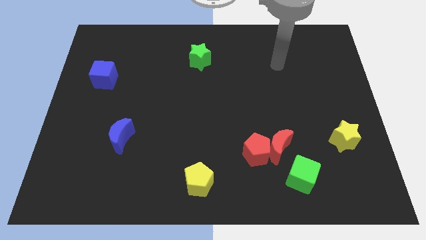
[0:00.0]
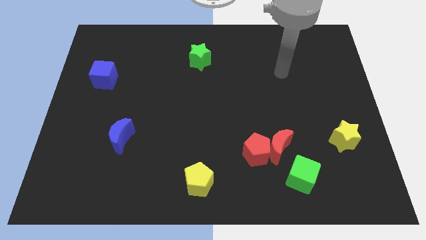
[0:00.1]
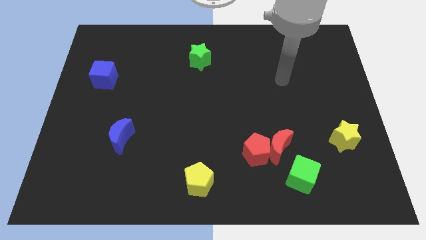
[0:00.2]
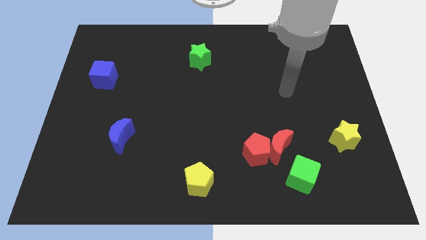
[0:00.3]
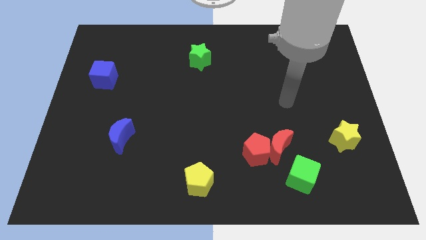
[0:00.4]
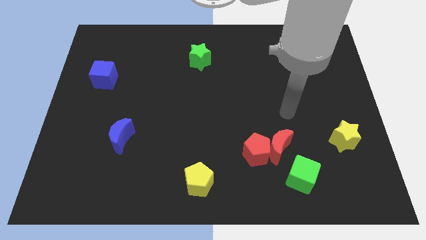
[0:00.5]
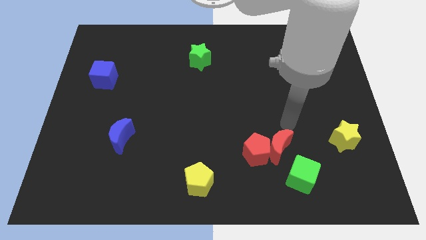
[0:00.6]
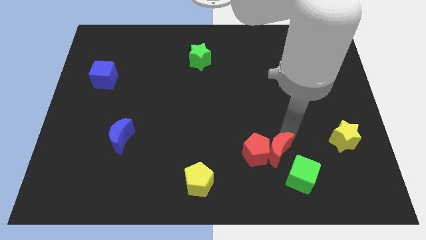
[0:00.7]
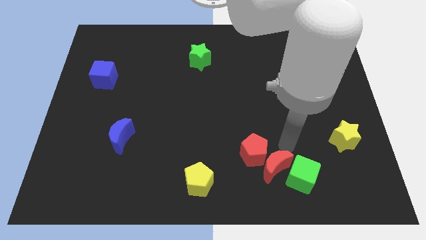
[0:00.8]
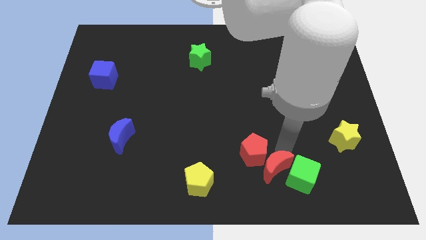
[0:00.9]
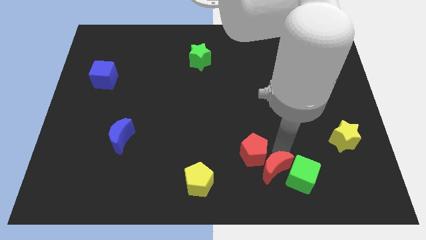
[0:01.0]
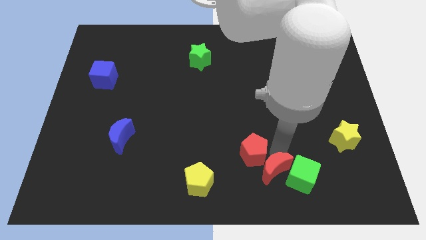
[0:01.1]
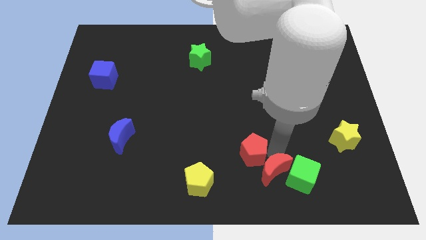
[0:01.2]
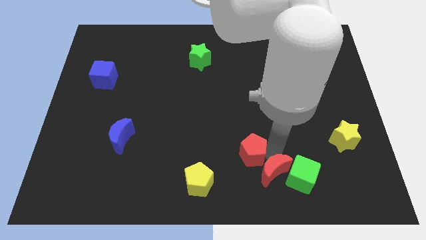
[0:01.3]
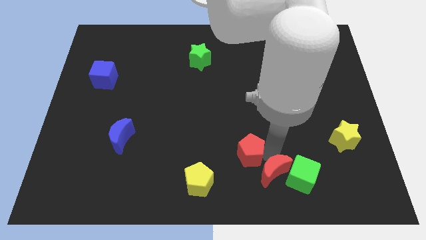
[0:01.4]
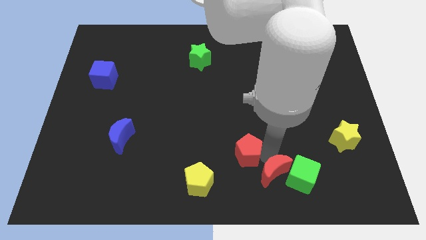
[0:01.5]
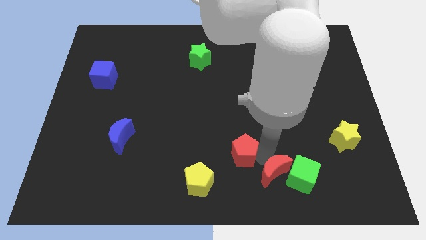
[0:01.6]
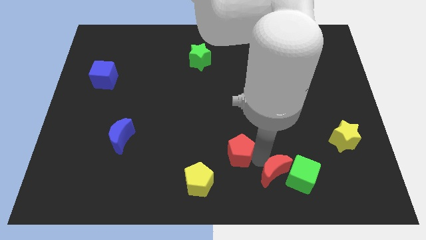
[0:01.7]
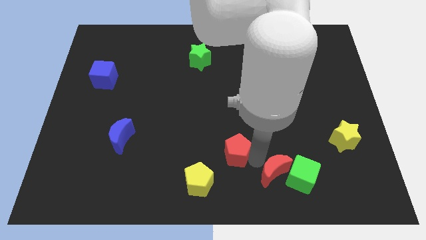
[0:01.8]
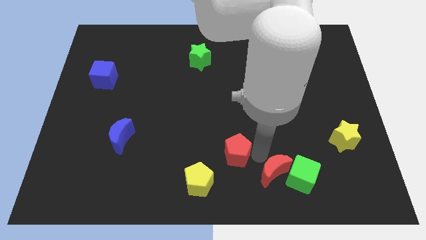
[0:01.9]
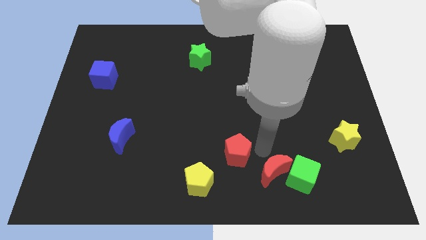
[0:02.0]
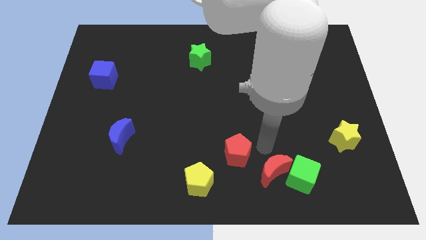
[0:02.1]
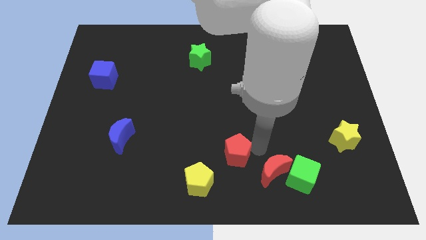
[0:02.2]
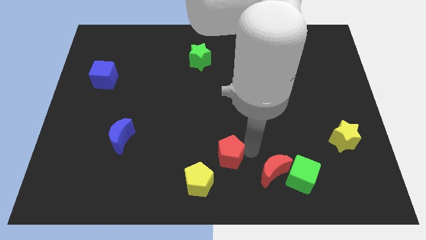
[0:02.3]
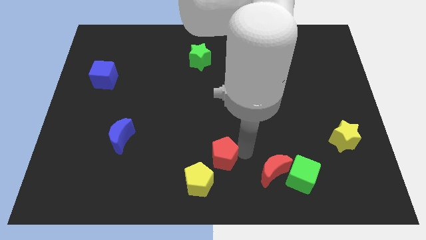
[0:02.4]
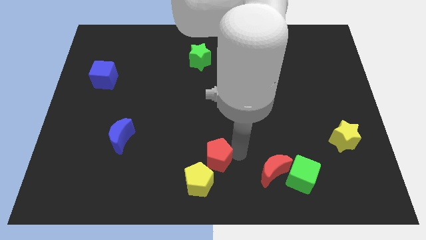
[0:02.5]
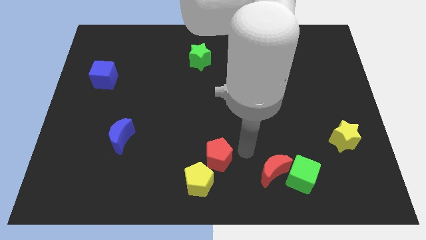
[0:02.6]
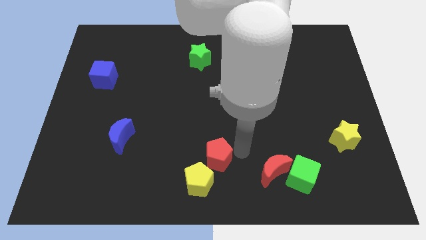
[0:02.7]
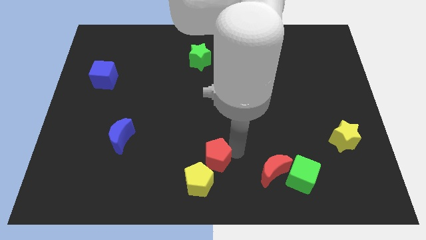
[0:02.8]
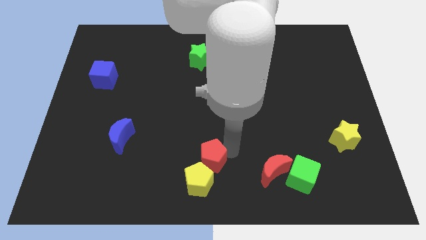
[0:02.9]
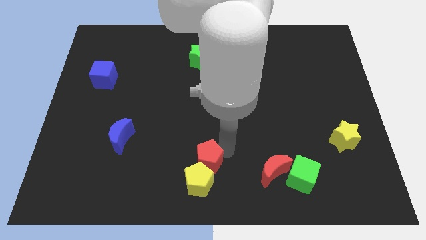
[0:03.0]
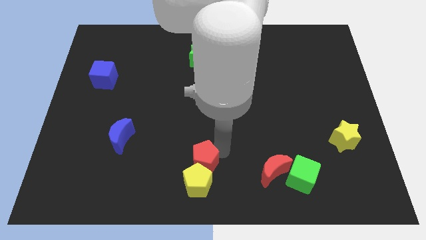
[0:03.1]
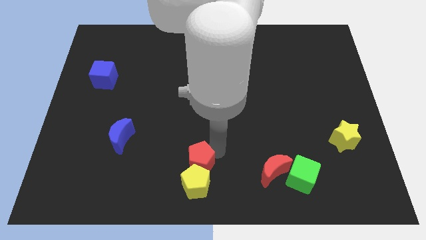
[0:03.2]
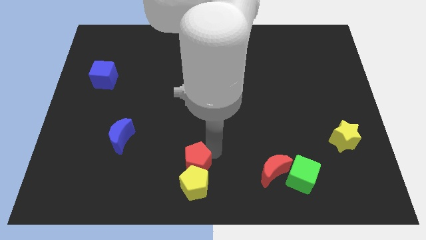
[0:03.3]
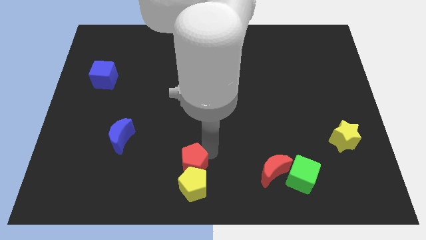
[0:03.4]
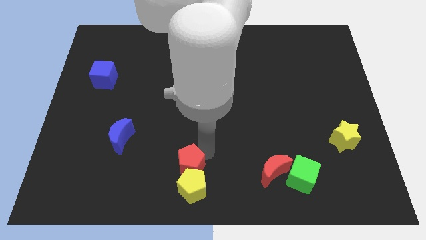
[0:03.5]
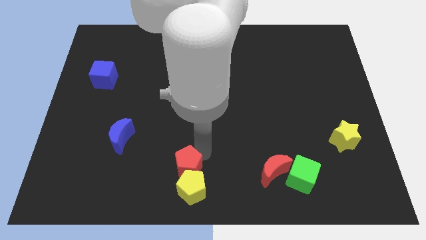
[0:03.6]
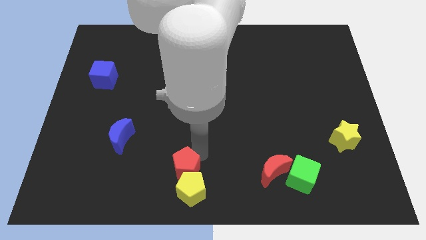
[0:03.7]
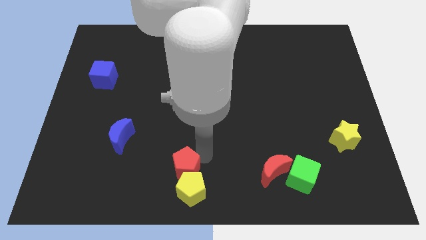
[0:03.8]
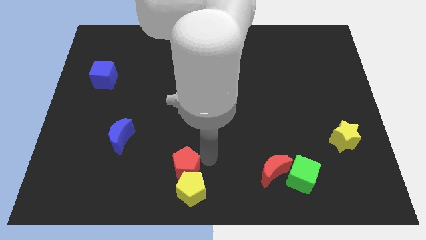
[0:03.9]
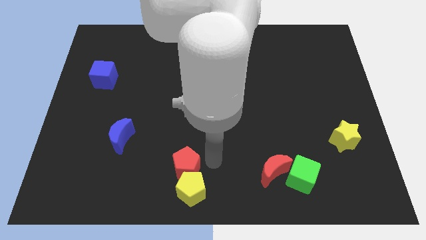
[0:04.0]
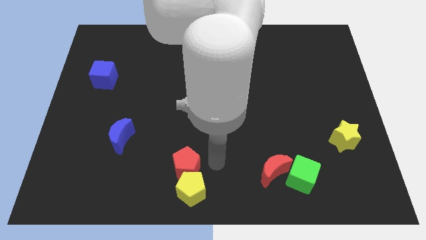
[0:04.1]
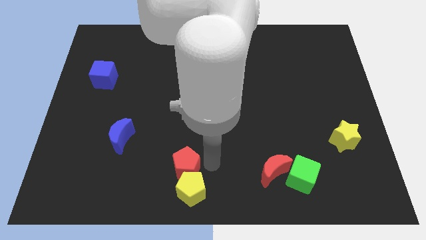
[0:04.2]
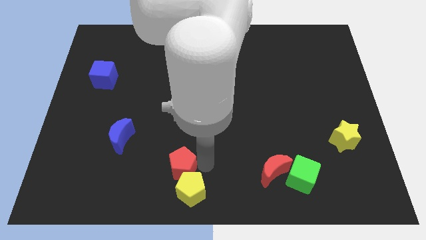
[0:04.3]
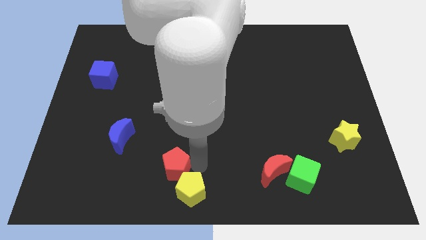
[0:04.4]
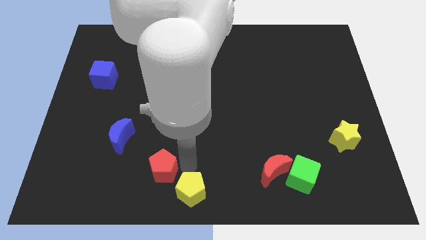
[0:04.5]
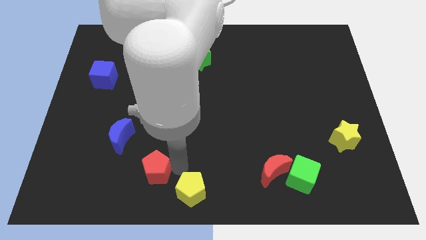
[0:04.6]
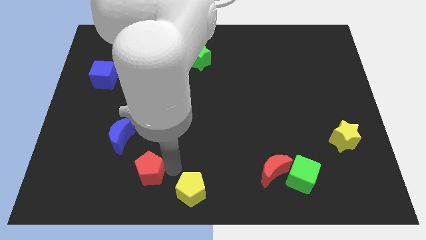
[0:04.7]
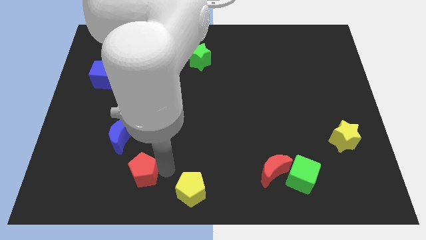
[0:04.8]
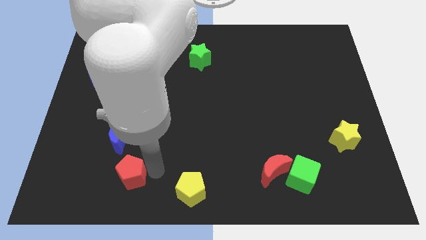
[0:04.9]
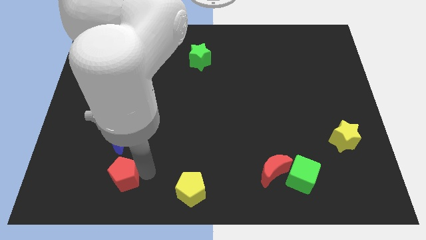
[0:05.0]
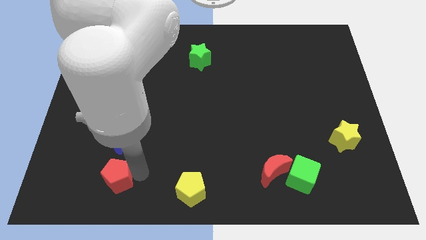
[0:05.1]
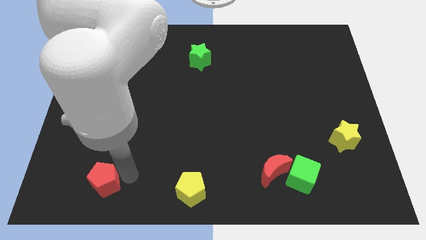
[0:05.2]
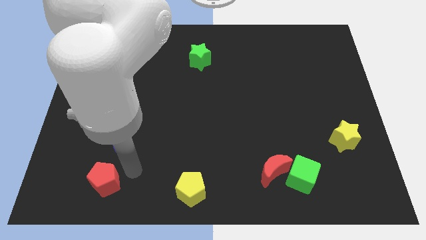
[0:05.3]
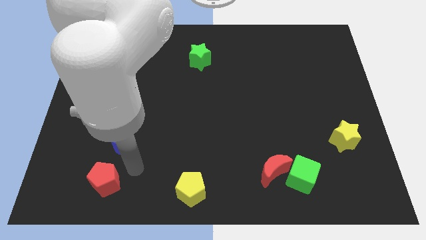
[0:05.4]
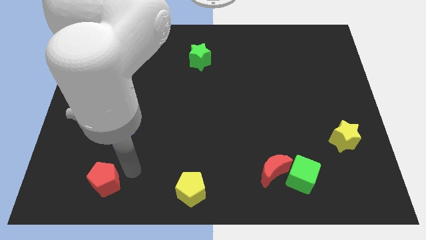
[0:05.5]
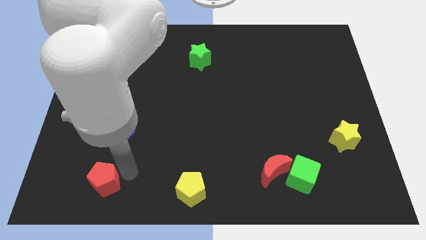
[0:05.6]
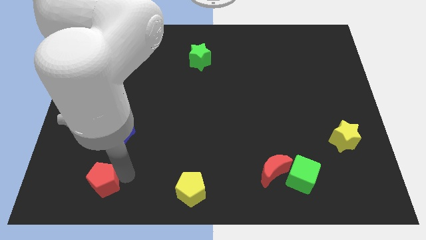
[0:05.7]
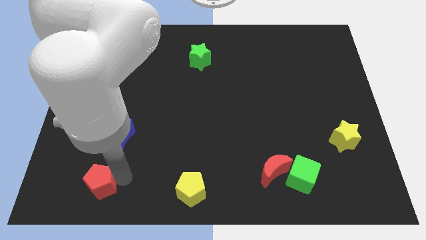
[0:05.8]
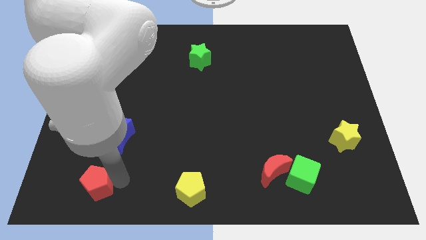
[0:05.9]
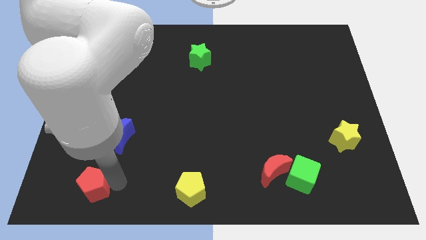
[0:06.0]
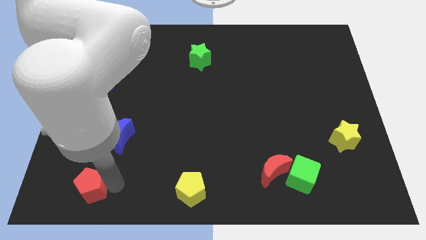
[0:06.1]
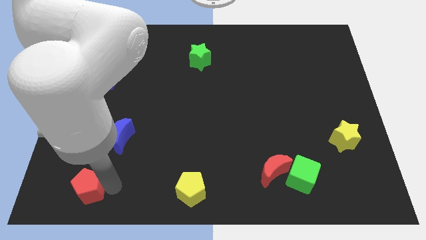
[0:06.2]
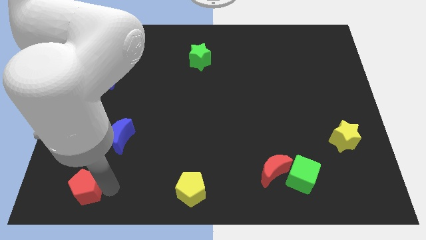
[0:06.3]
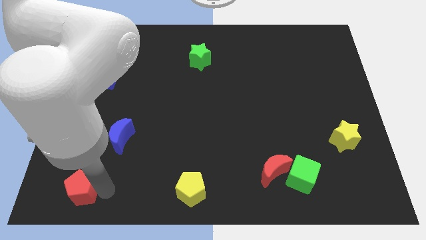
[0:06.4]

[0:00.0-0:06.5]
slide the red pentagon to the lower left corner
